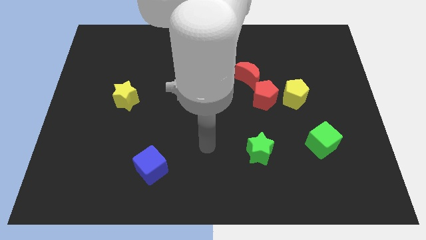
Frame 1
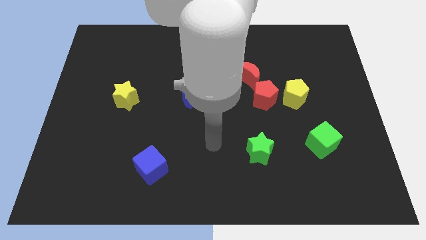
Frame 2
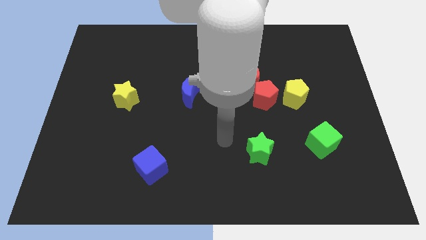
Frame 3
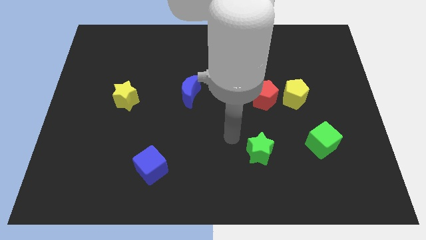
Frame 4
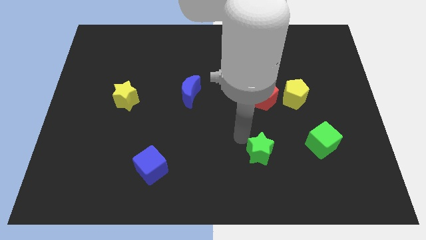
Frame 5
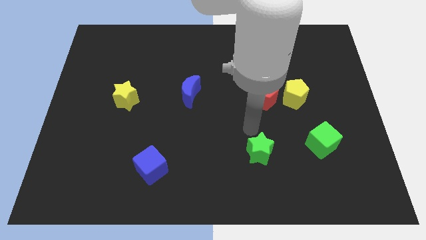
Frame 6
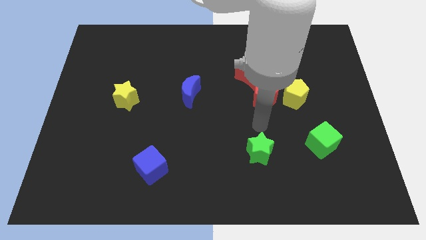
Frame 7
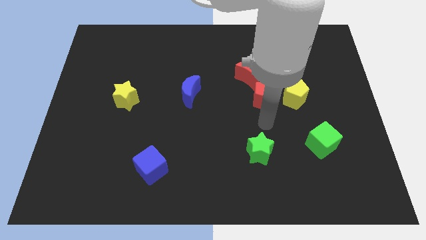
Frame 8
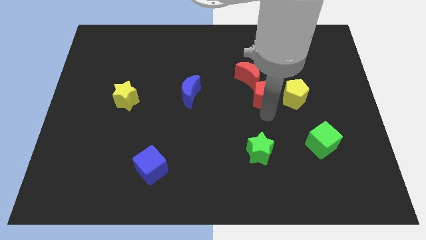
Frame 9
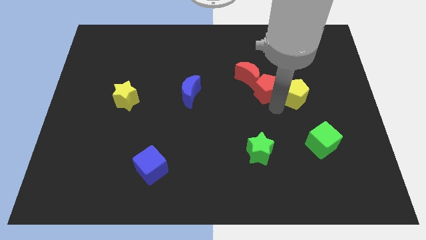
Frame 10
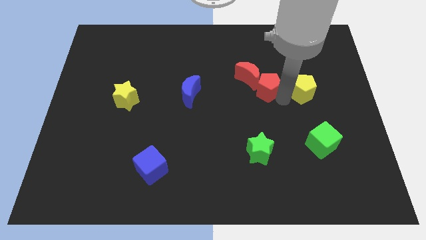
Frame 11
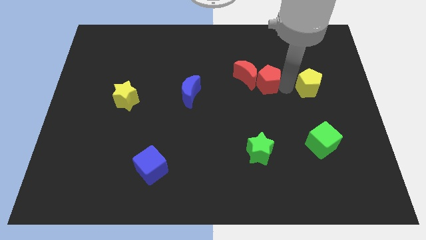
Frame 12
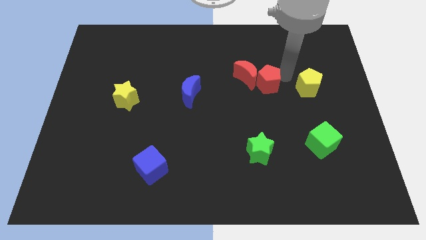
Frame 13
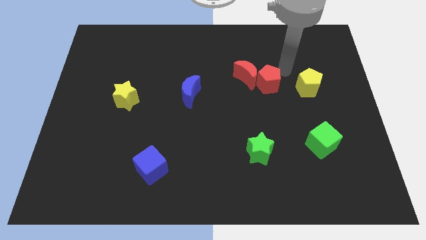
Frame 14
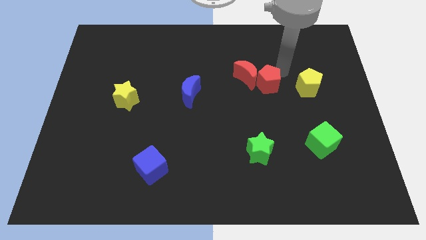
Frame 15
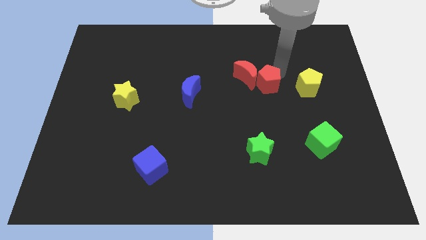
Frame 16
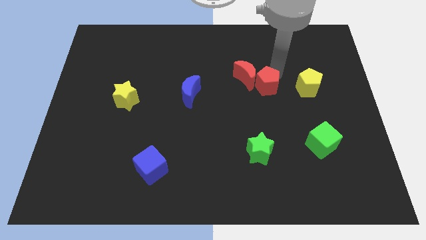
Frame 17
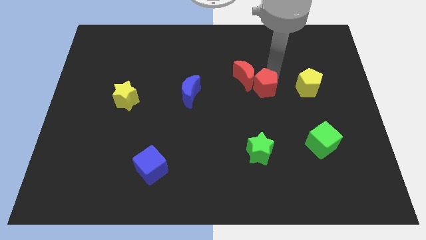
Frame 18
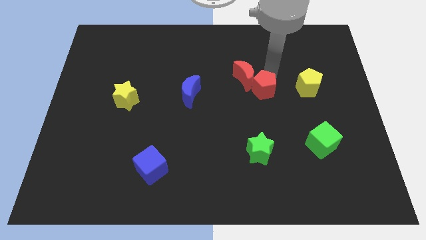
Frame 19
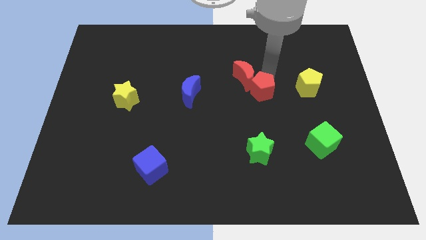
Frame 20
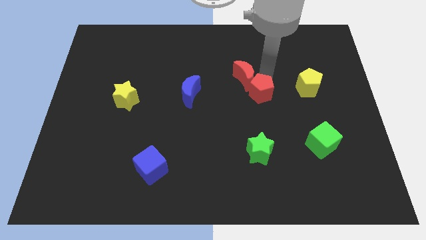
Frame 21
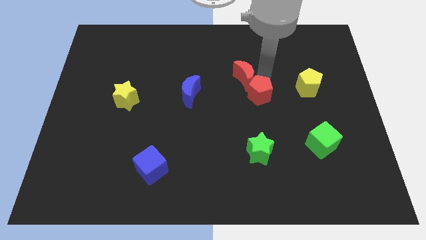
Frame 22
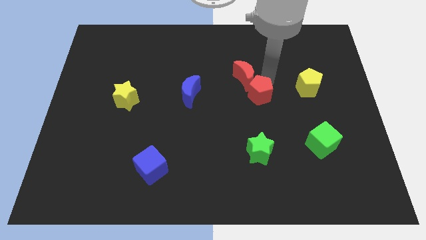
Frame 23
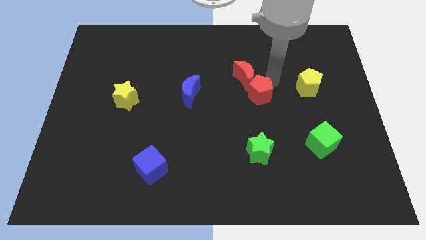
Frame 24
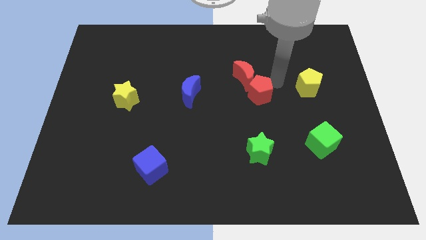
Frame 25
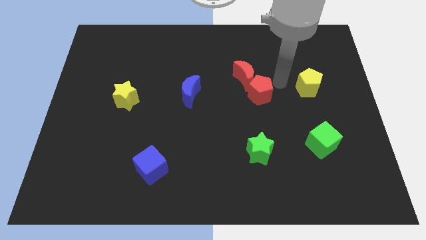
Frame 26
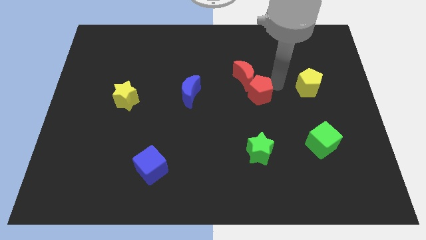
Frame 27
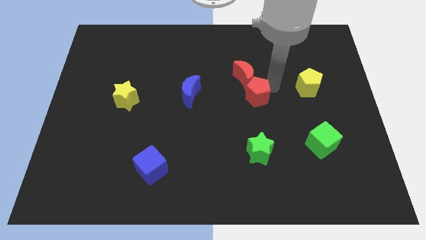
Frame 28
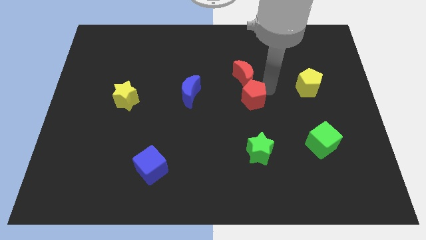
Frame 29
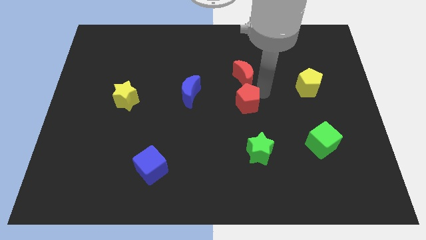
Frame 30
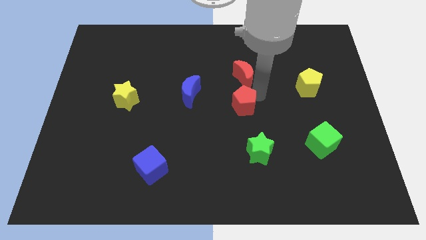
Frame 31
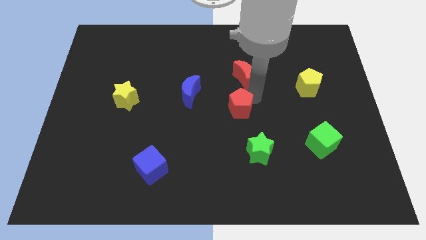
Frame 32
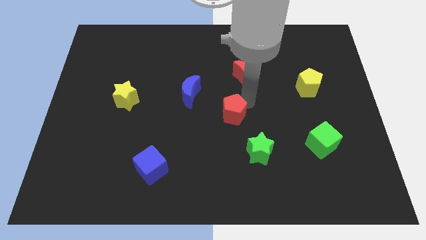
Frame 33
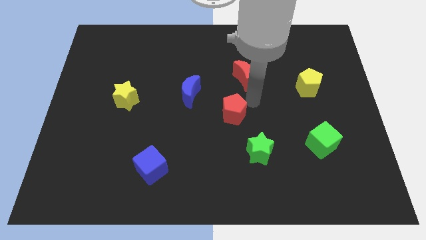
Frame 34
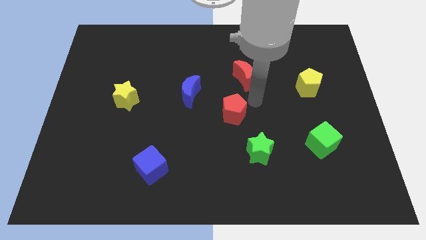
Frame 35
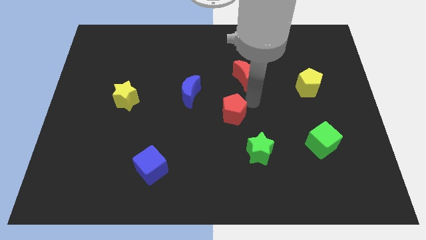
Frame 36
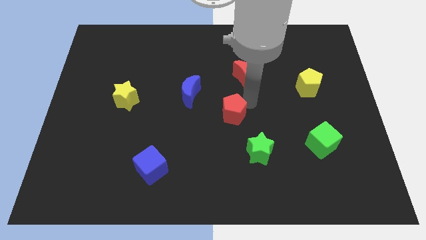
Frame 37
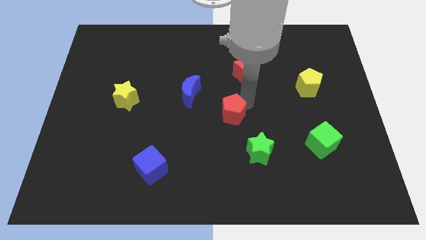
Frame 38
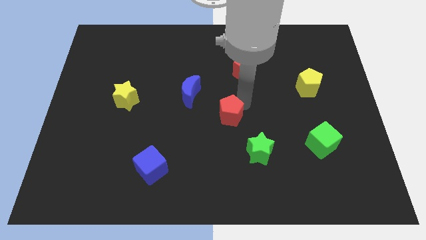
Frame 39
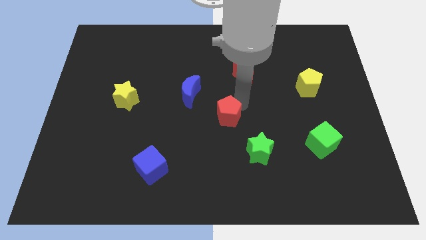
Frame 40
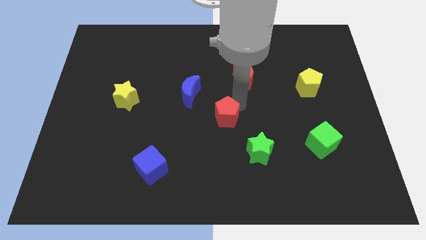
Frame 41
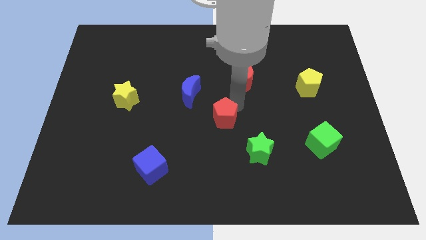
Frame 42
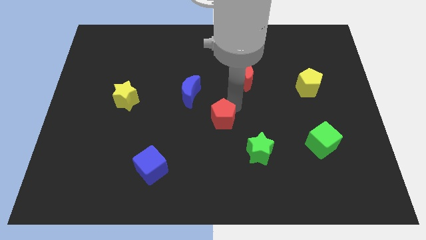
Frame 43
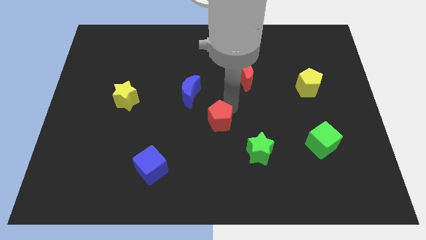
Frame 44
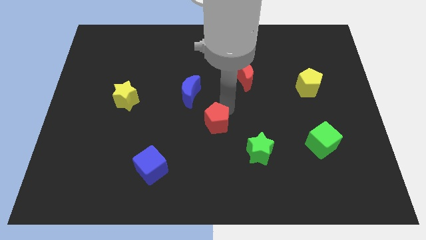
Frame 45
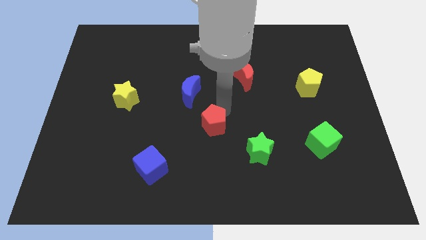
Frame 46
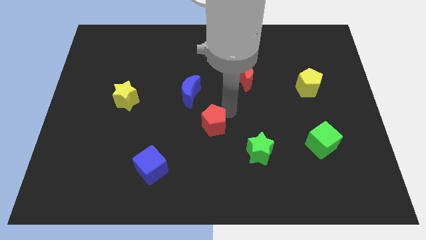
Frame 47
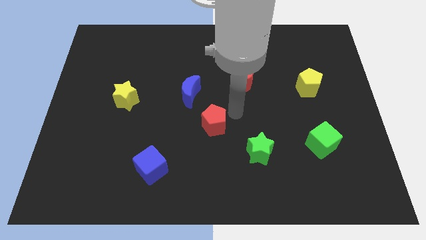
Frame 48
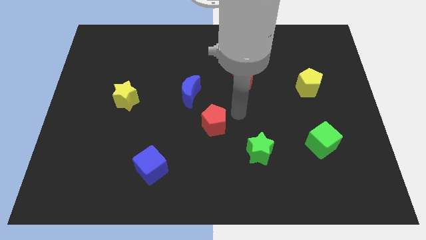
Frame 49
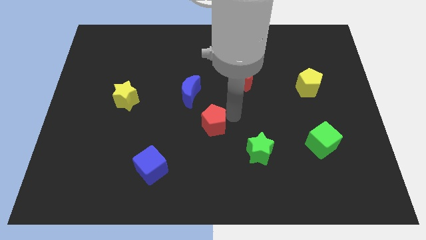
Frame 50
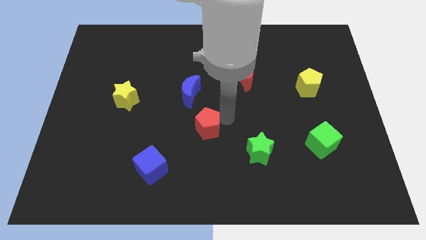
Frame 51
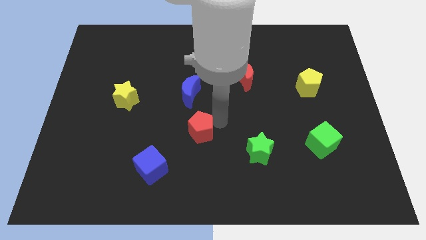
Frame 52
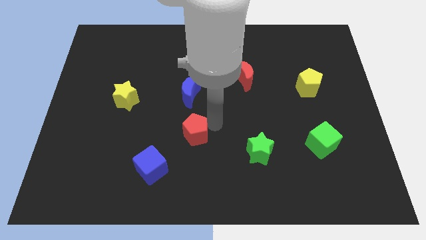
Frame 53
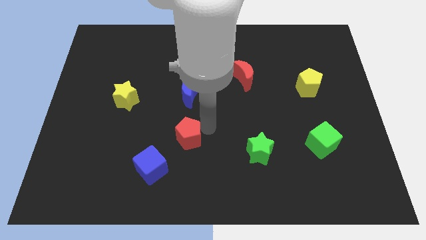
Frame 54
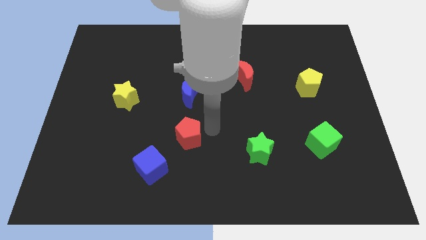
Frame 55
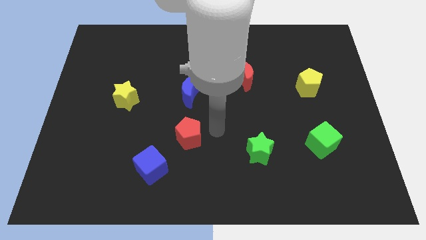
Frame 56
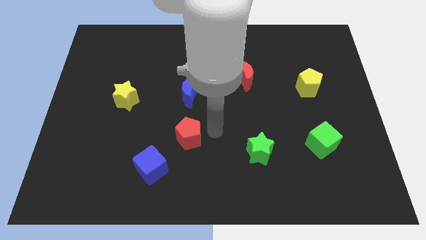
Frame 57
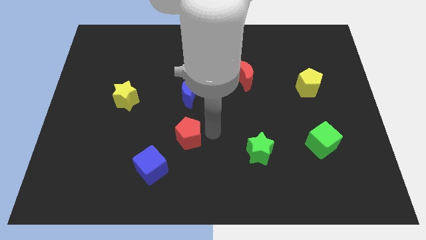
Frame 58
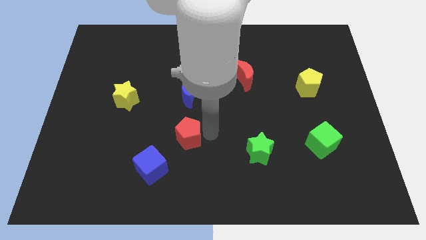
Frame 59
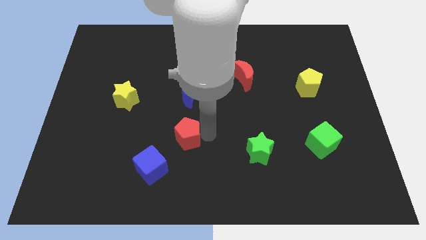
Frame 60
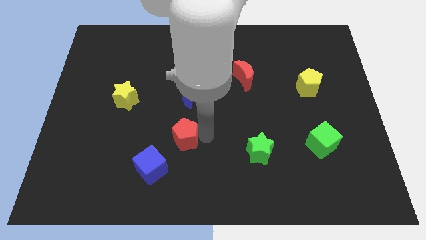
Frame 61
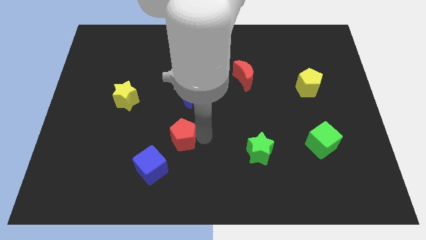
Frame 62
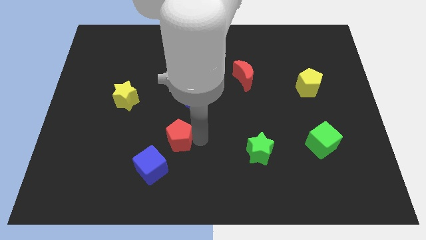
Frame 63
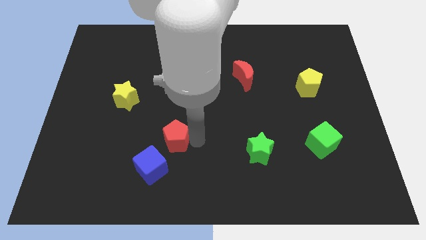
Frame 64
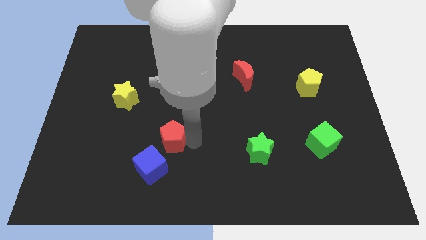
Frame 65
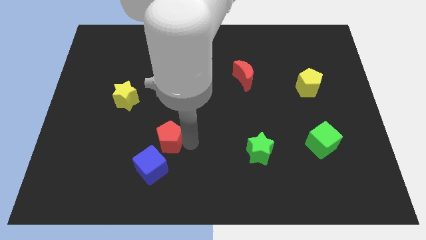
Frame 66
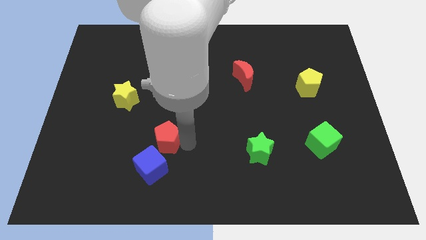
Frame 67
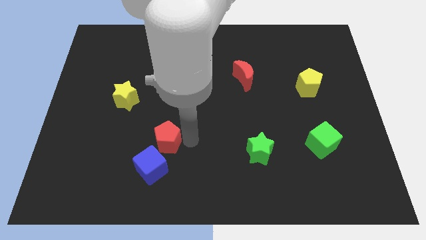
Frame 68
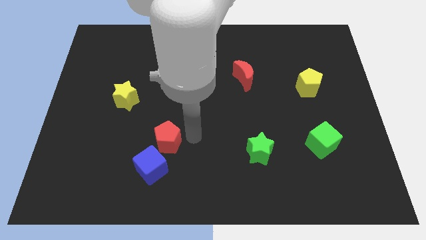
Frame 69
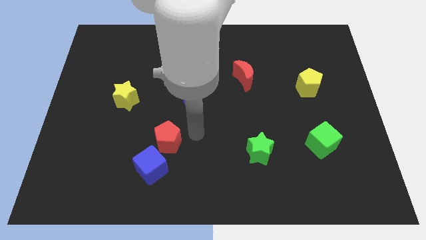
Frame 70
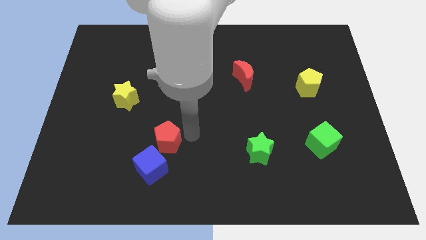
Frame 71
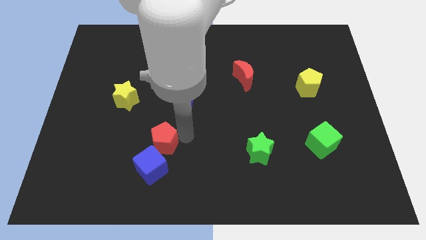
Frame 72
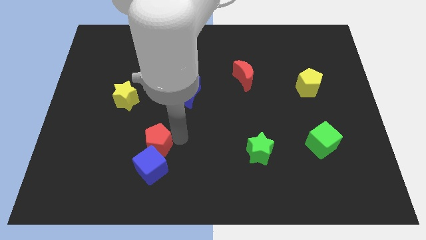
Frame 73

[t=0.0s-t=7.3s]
move the red pentagon diagonally up and to the left of the blue cube
